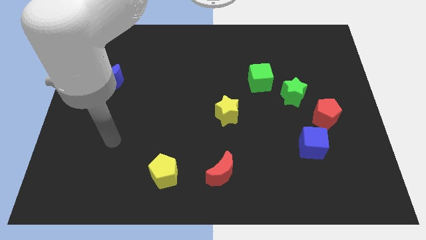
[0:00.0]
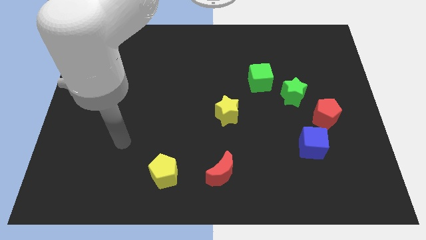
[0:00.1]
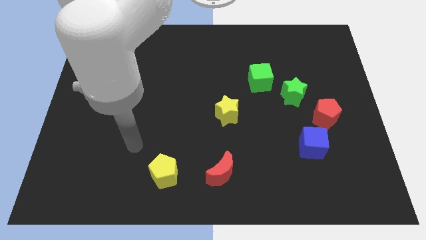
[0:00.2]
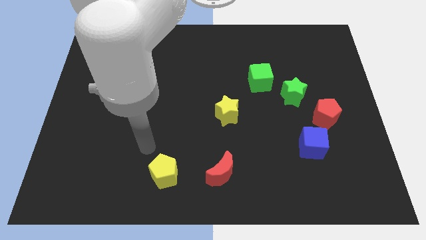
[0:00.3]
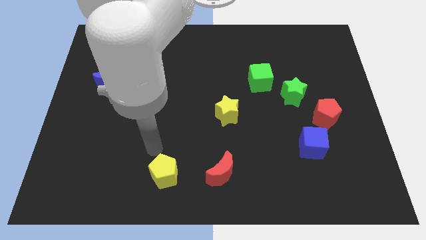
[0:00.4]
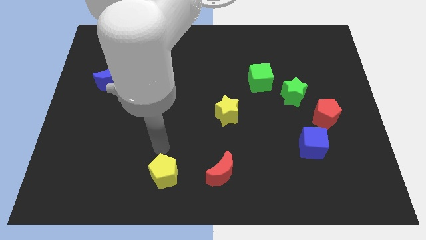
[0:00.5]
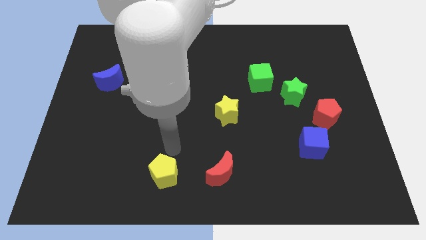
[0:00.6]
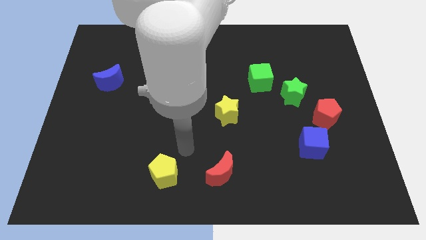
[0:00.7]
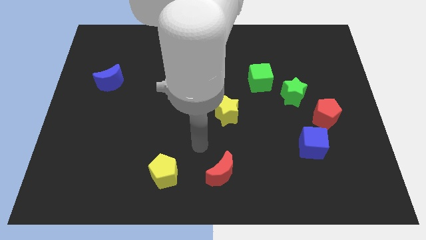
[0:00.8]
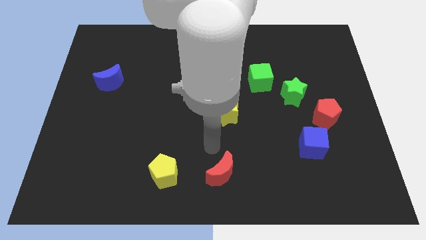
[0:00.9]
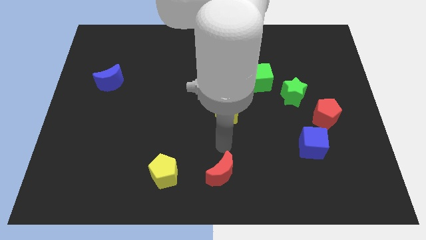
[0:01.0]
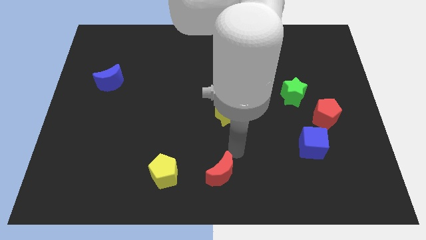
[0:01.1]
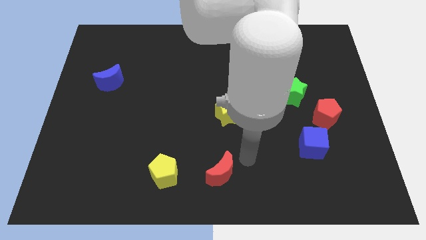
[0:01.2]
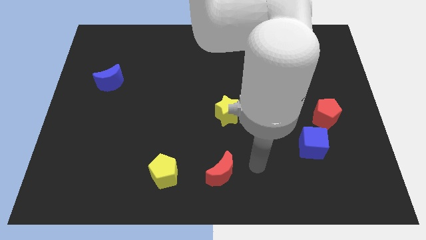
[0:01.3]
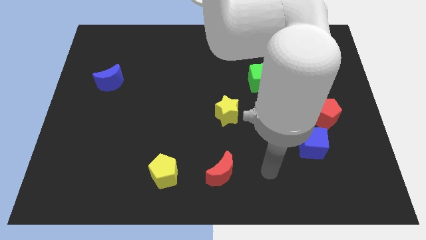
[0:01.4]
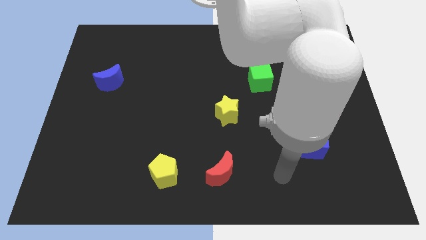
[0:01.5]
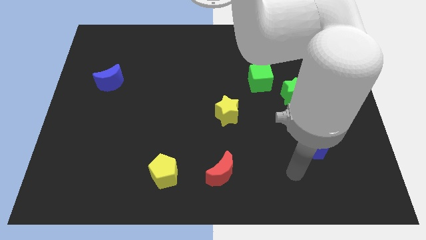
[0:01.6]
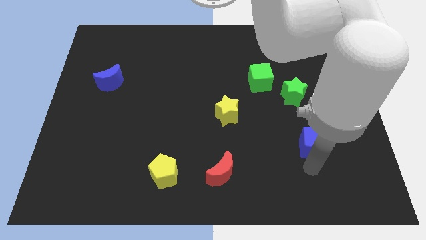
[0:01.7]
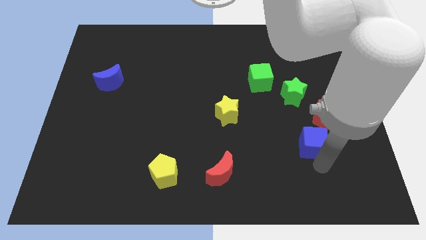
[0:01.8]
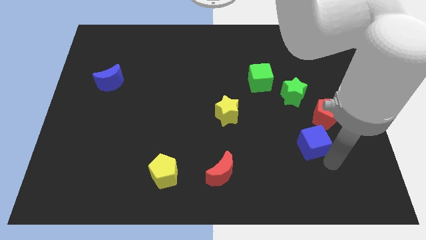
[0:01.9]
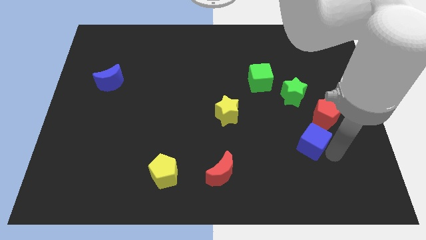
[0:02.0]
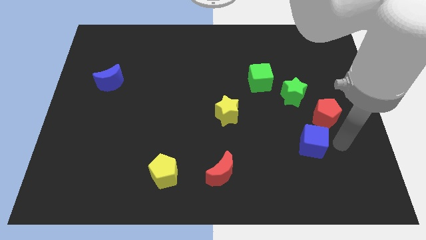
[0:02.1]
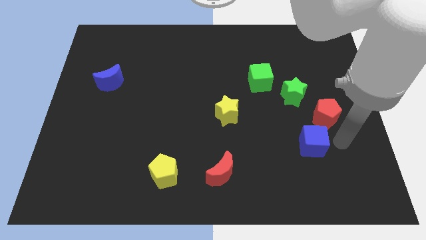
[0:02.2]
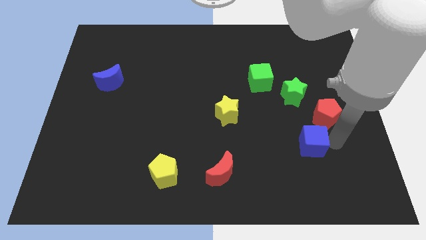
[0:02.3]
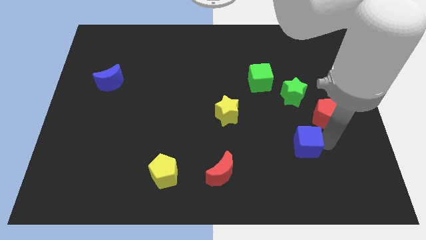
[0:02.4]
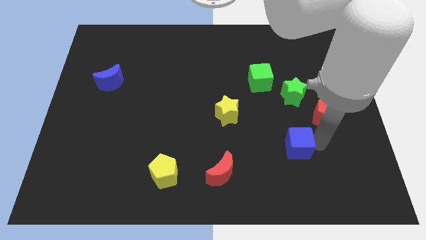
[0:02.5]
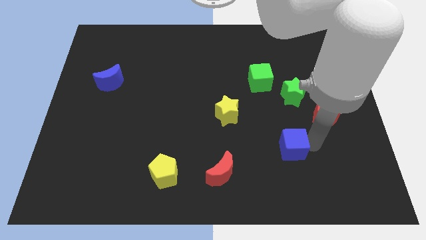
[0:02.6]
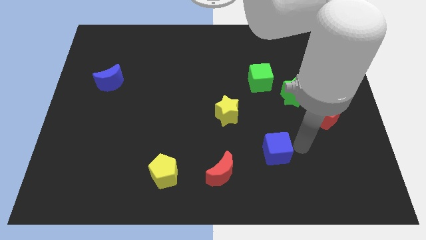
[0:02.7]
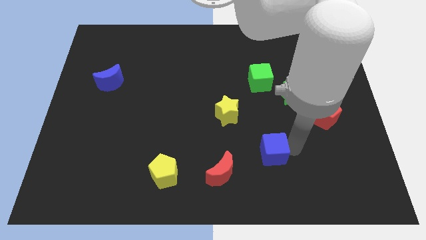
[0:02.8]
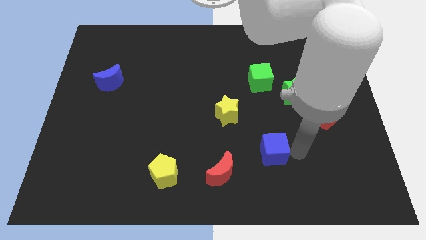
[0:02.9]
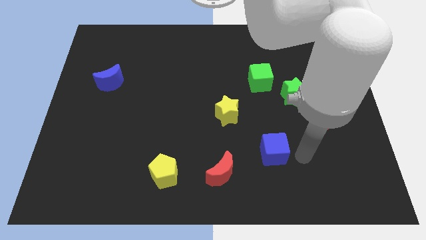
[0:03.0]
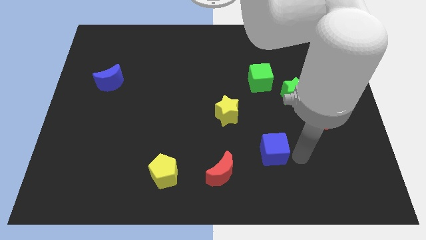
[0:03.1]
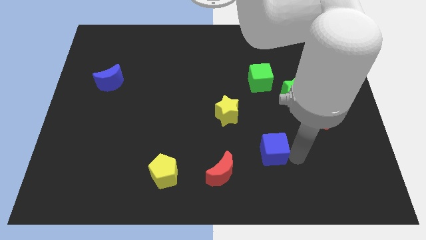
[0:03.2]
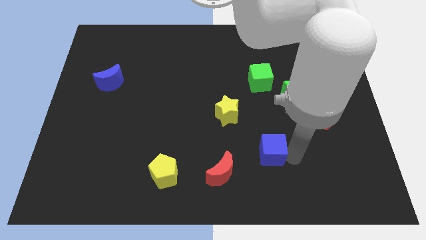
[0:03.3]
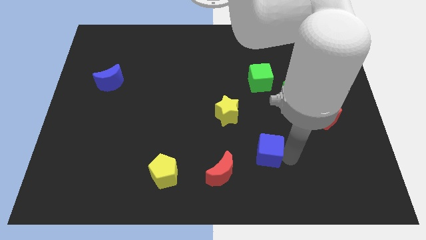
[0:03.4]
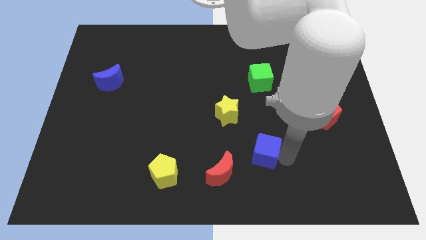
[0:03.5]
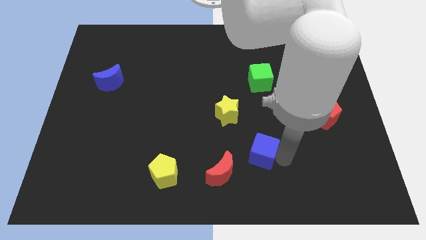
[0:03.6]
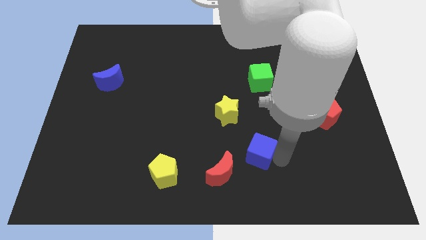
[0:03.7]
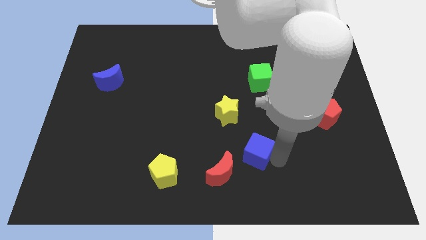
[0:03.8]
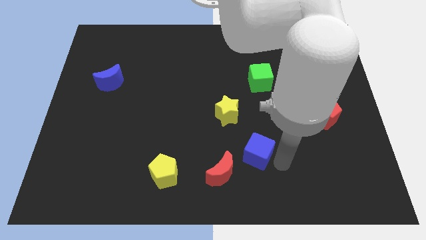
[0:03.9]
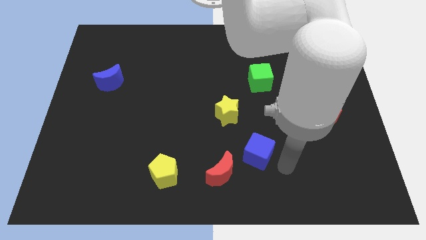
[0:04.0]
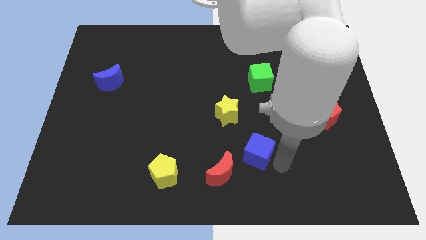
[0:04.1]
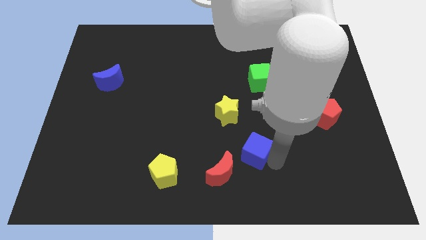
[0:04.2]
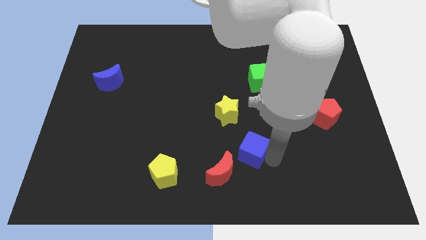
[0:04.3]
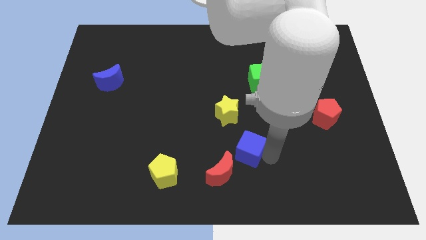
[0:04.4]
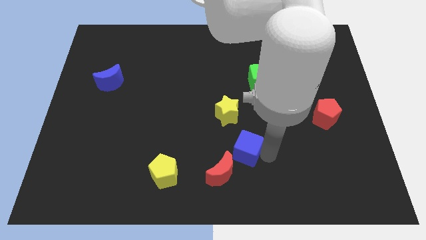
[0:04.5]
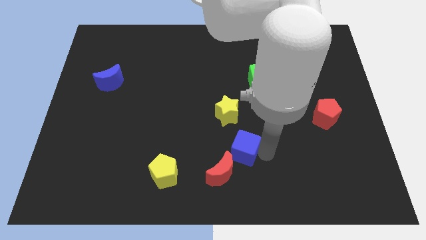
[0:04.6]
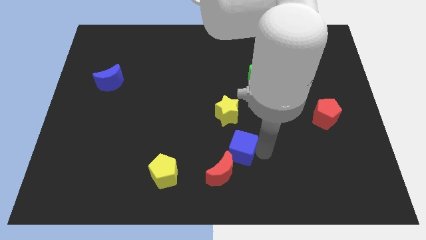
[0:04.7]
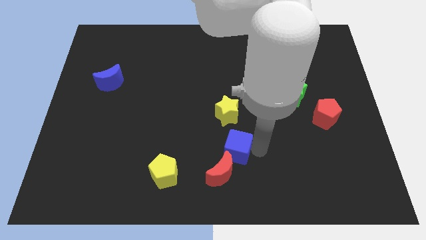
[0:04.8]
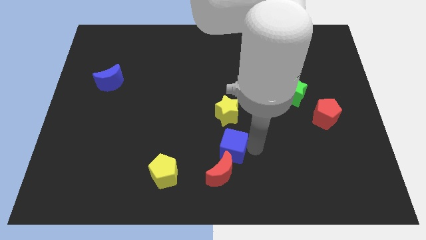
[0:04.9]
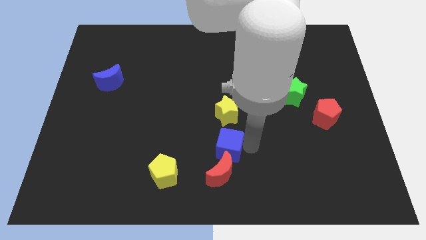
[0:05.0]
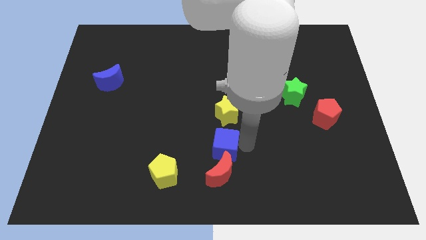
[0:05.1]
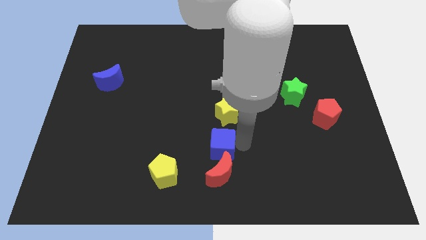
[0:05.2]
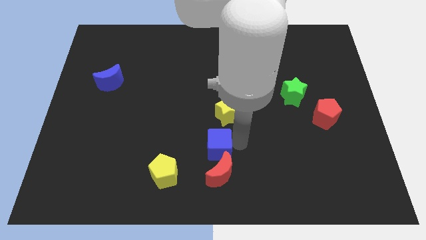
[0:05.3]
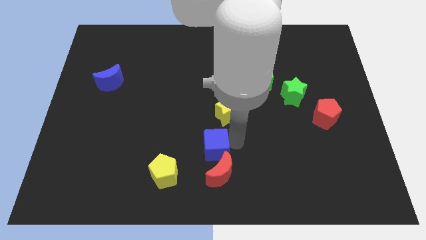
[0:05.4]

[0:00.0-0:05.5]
move the blue cube diagonally up and to the right of the yellow pentagon

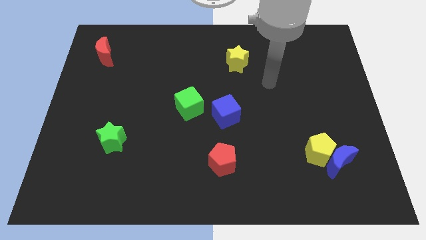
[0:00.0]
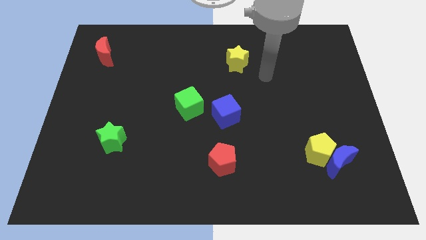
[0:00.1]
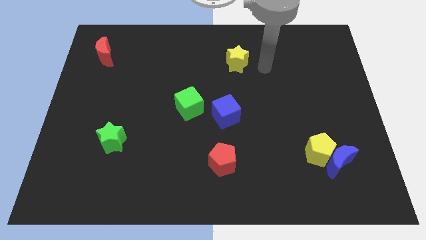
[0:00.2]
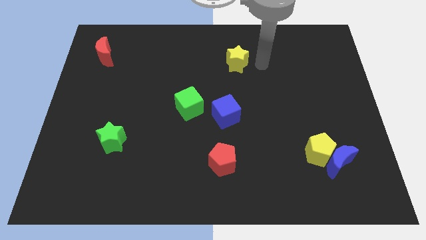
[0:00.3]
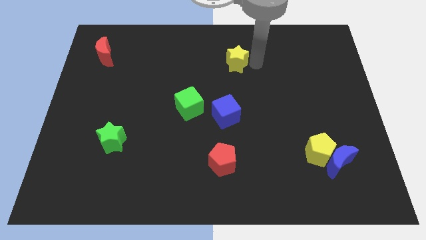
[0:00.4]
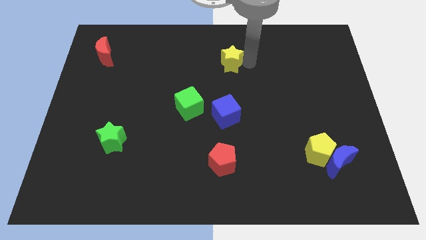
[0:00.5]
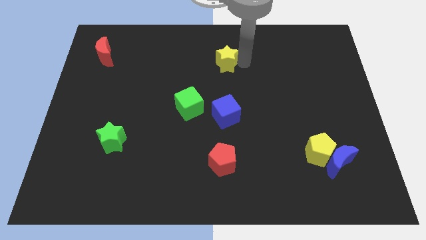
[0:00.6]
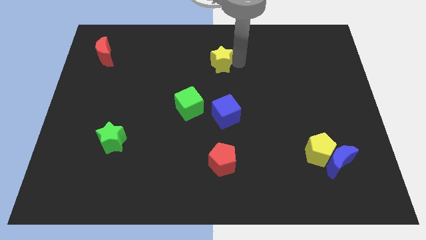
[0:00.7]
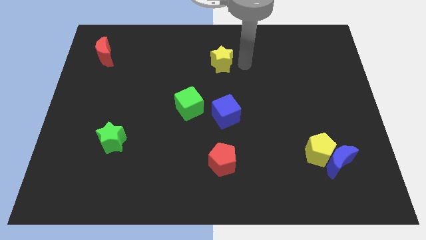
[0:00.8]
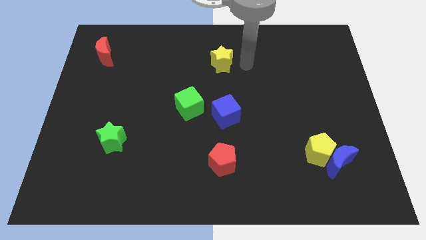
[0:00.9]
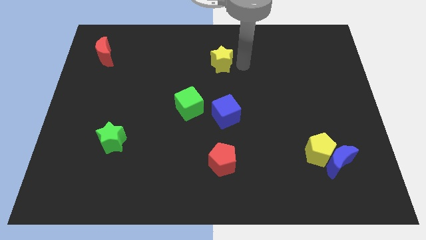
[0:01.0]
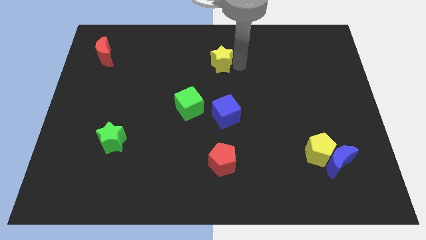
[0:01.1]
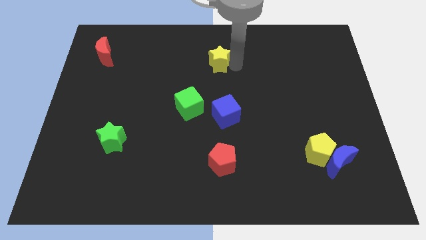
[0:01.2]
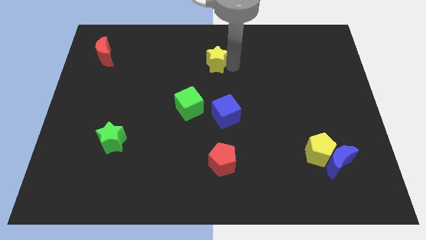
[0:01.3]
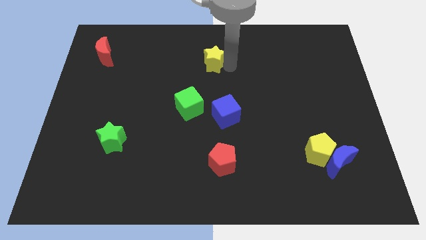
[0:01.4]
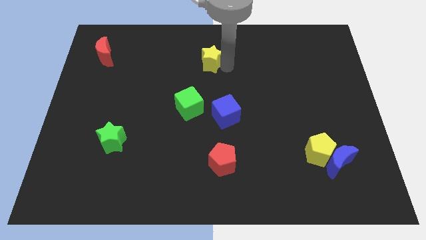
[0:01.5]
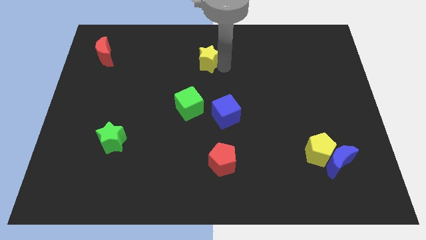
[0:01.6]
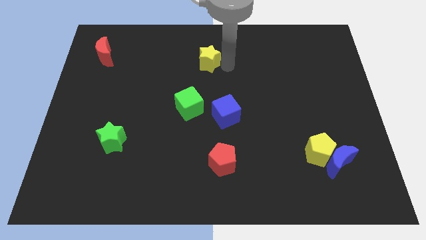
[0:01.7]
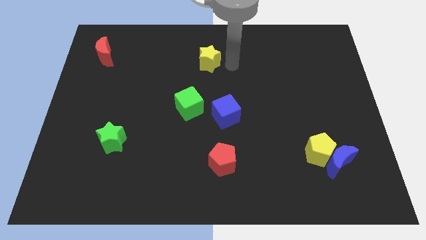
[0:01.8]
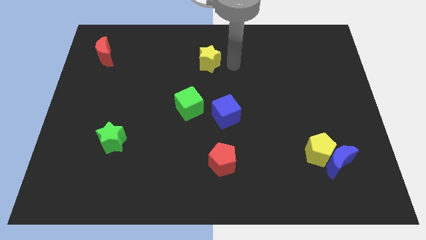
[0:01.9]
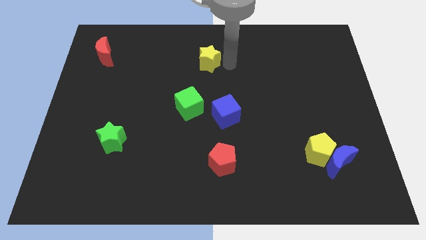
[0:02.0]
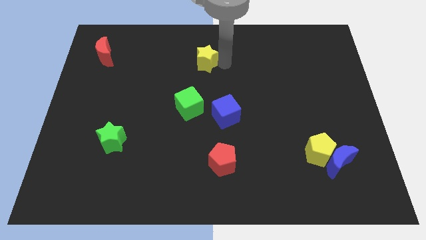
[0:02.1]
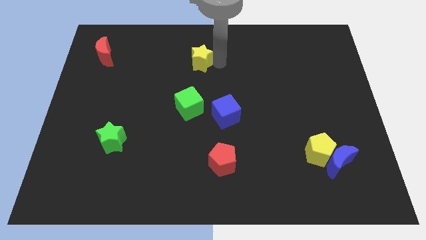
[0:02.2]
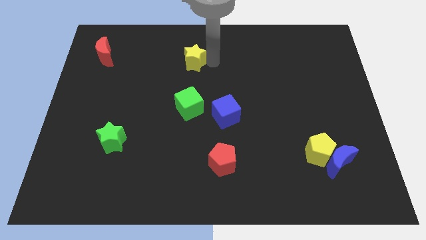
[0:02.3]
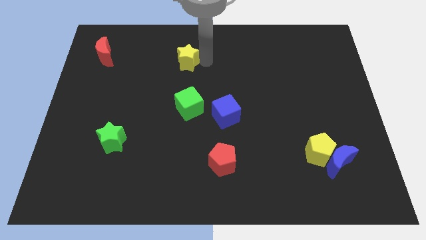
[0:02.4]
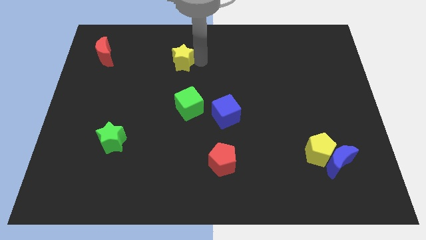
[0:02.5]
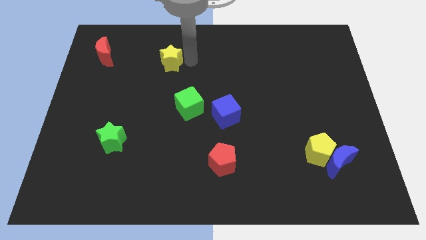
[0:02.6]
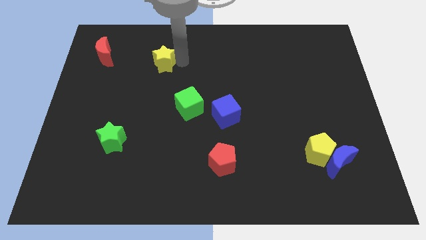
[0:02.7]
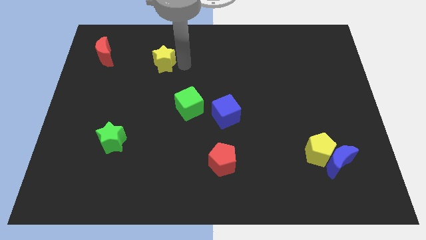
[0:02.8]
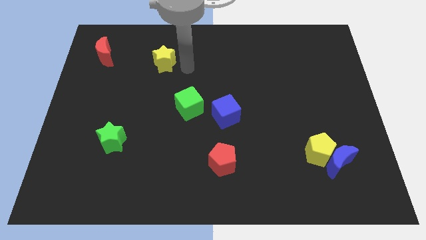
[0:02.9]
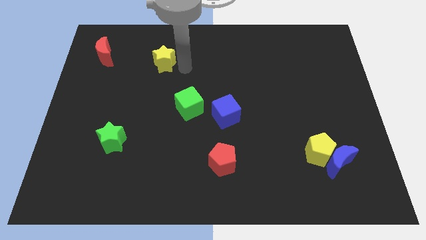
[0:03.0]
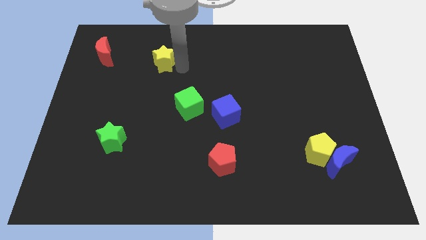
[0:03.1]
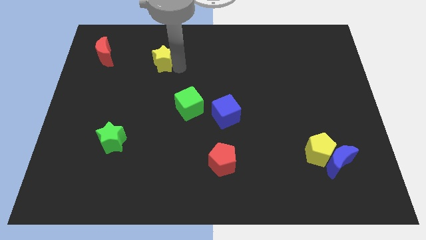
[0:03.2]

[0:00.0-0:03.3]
push the yellow star to the right side of the red moon
